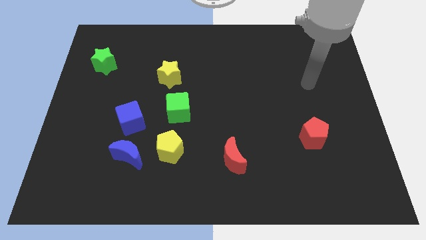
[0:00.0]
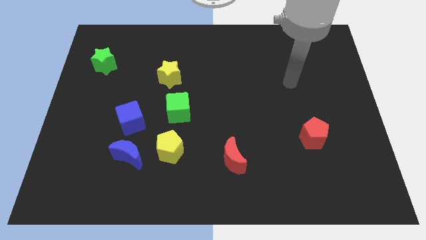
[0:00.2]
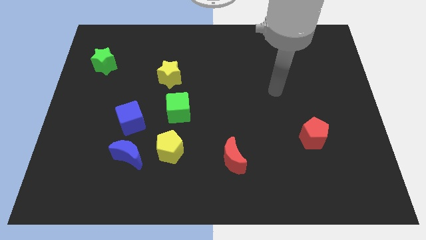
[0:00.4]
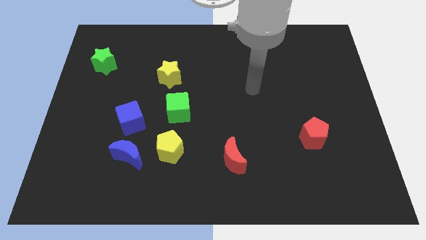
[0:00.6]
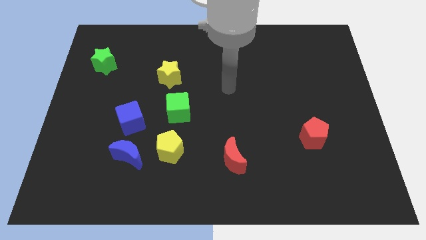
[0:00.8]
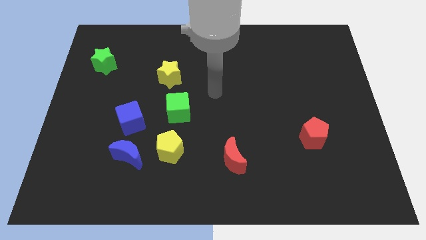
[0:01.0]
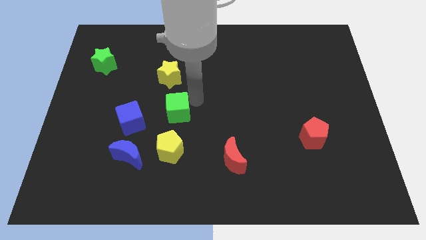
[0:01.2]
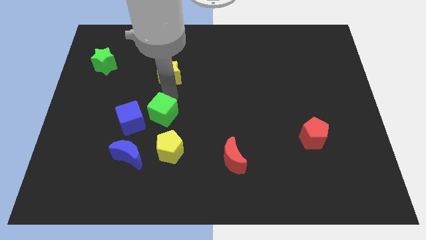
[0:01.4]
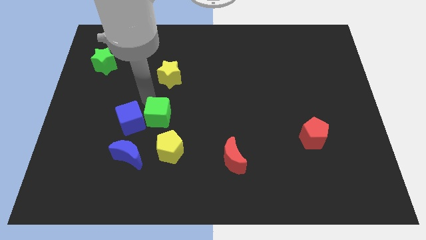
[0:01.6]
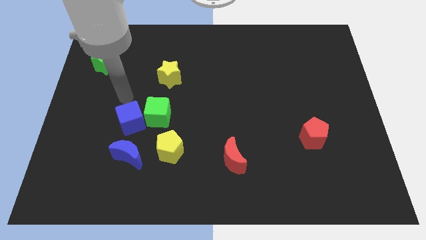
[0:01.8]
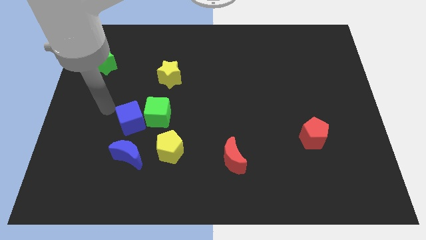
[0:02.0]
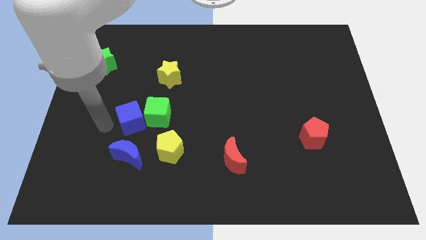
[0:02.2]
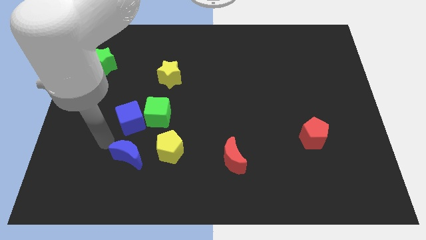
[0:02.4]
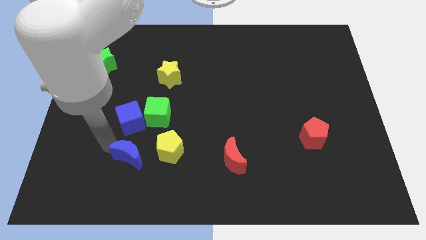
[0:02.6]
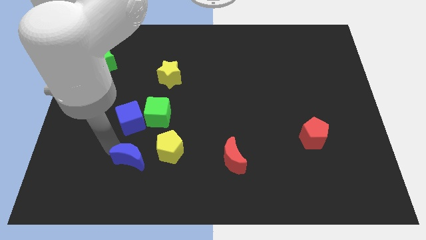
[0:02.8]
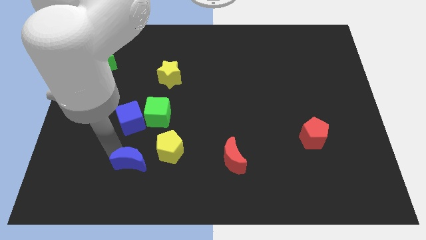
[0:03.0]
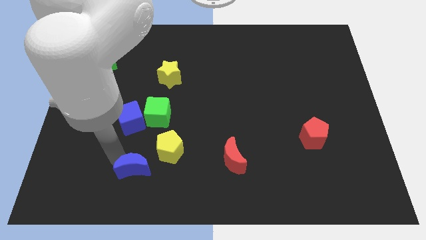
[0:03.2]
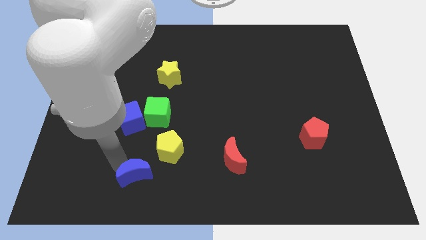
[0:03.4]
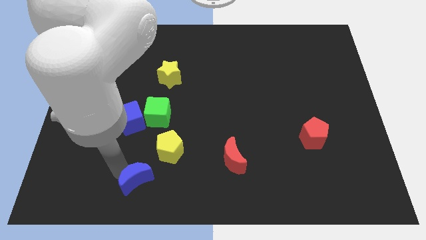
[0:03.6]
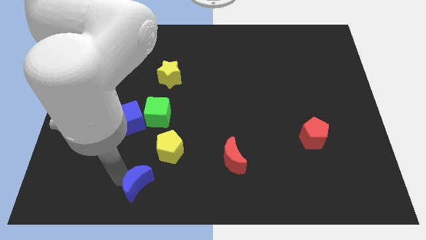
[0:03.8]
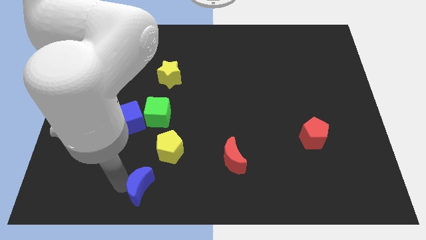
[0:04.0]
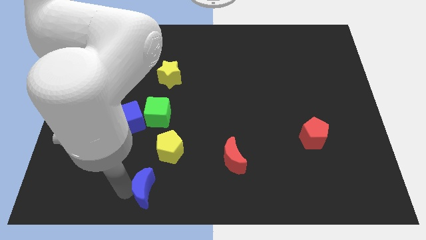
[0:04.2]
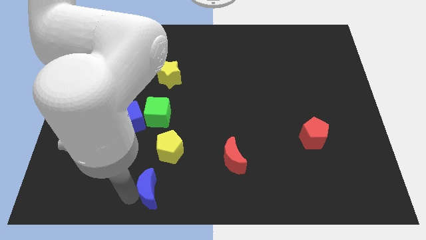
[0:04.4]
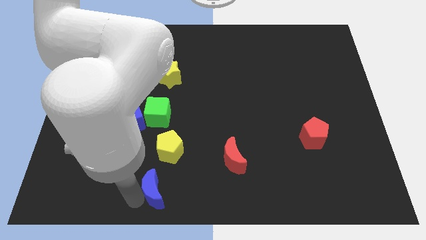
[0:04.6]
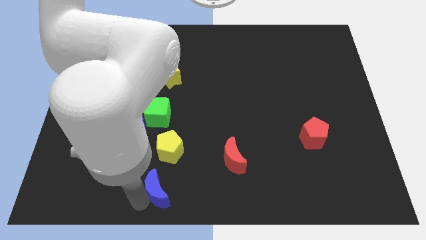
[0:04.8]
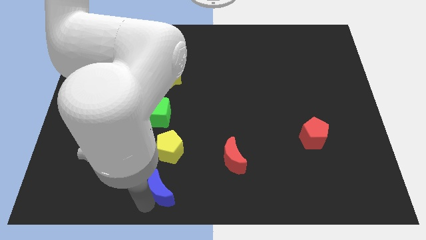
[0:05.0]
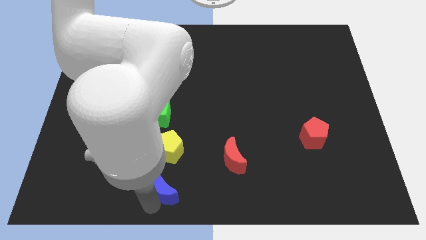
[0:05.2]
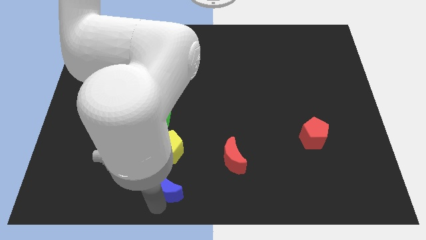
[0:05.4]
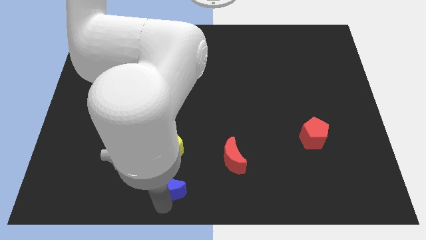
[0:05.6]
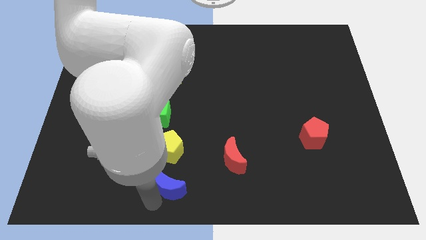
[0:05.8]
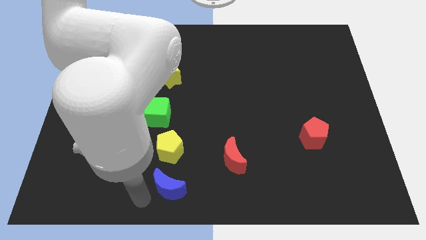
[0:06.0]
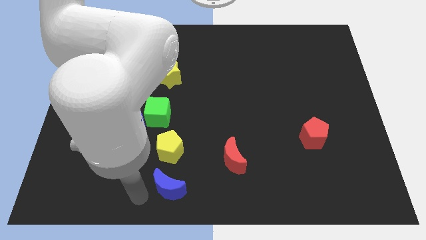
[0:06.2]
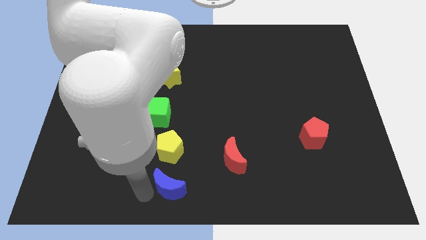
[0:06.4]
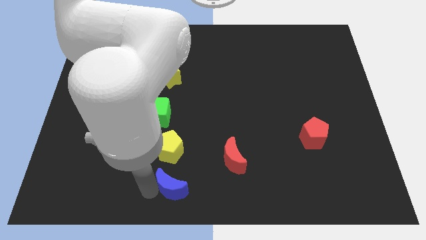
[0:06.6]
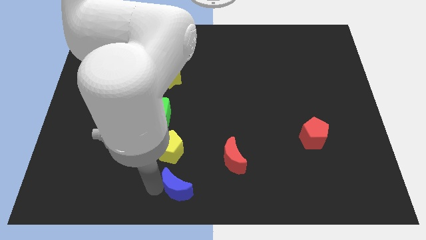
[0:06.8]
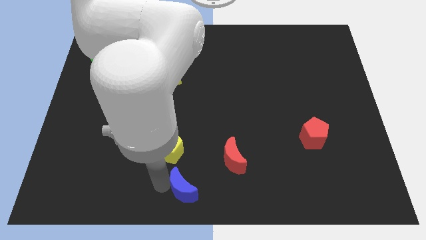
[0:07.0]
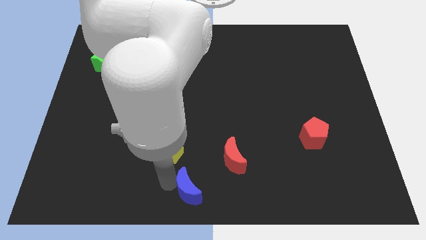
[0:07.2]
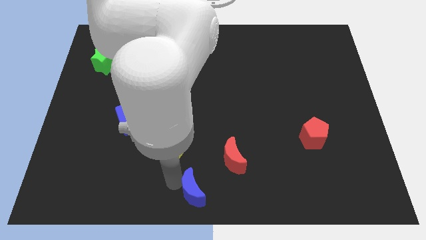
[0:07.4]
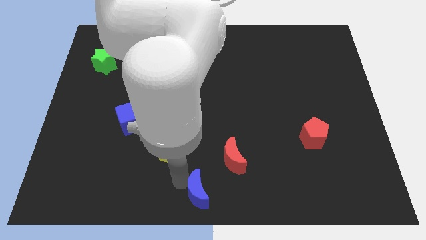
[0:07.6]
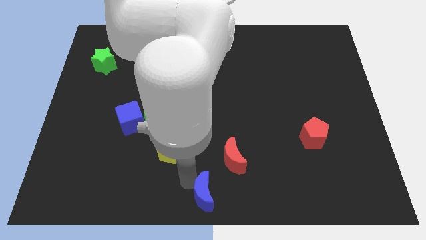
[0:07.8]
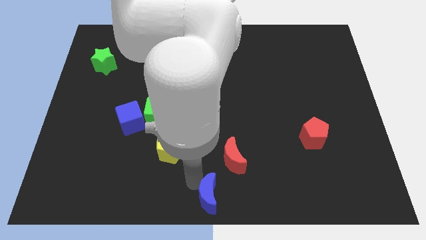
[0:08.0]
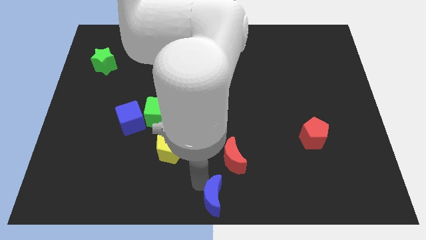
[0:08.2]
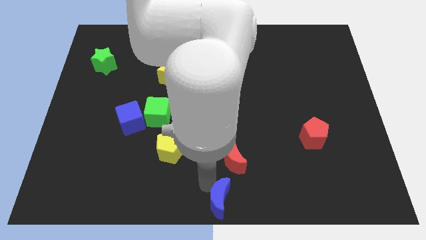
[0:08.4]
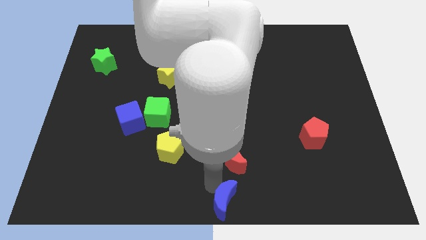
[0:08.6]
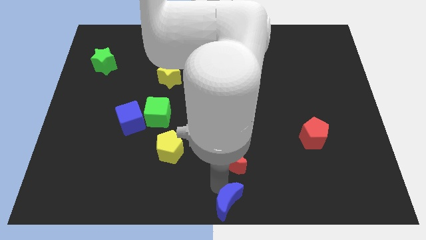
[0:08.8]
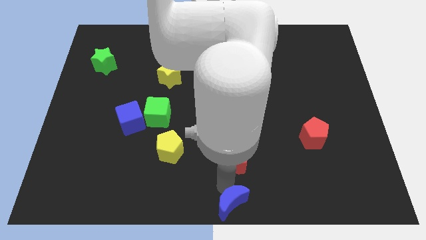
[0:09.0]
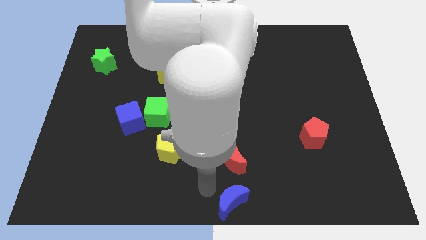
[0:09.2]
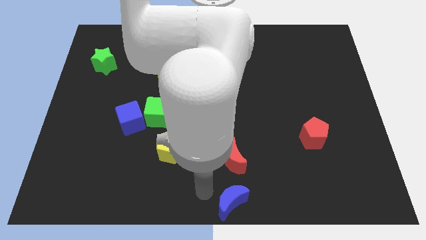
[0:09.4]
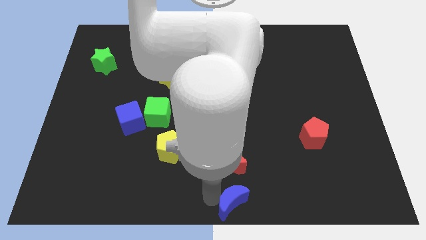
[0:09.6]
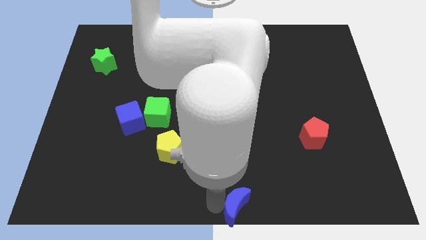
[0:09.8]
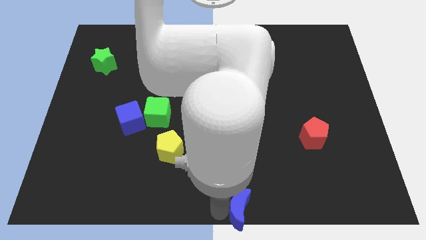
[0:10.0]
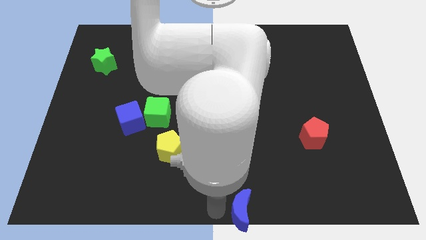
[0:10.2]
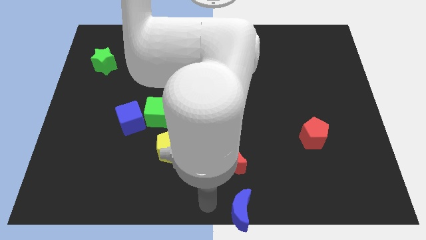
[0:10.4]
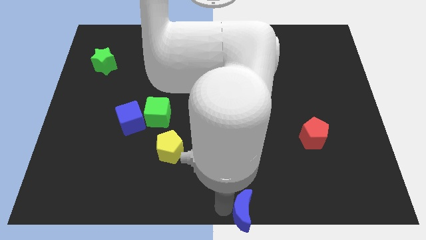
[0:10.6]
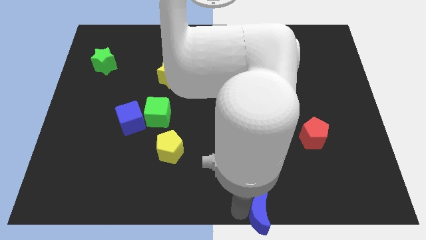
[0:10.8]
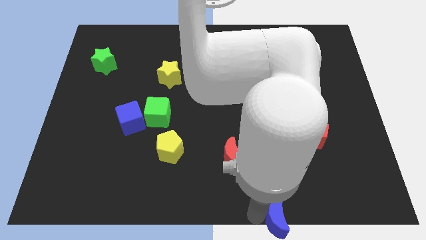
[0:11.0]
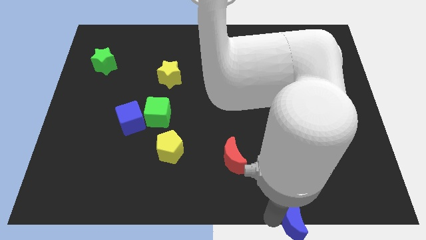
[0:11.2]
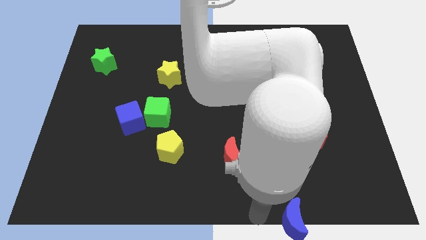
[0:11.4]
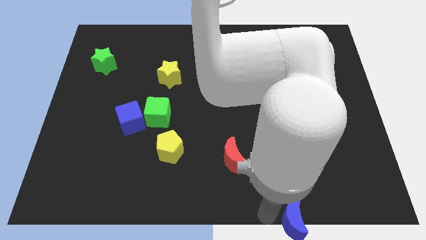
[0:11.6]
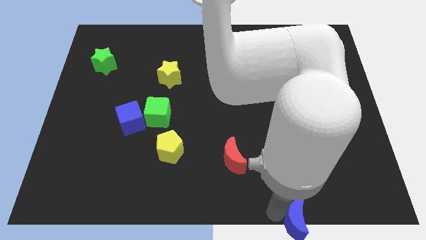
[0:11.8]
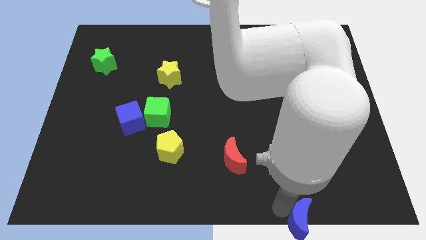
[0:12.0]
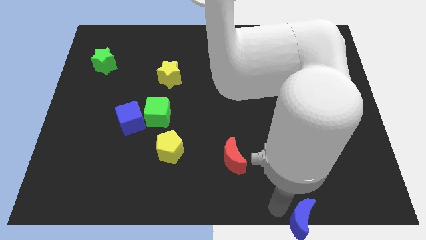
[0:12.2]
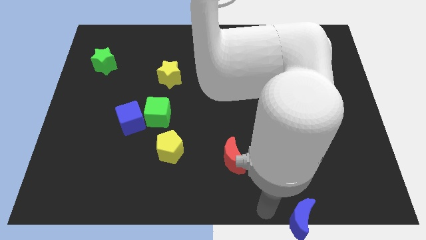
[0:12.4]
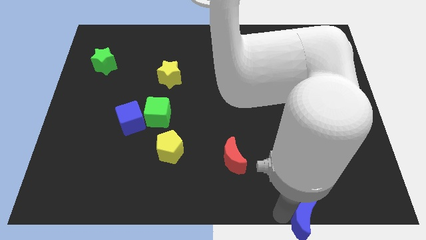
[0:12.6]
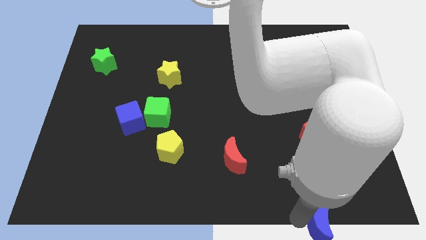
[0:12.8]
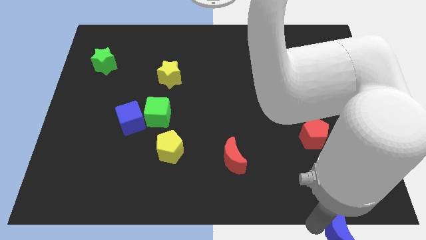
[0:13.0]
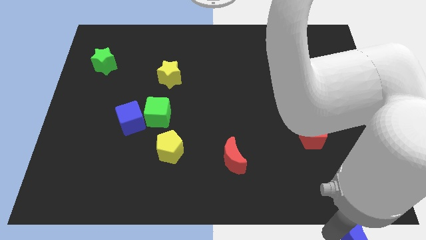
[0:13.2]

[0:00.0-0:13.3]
slide the blue moon to the bottom right corner
